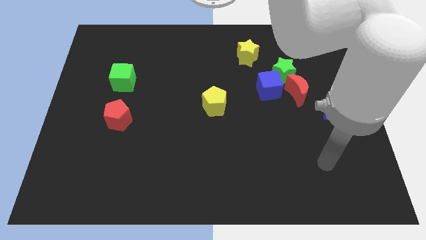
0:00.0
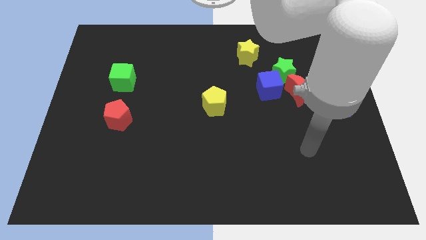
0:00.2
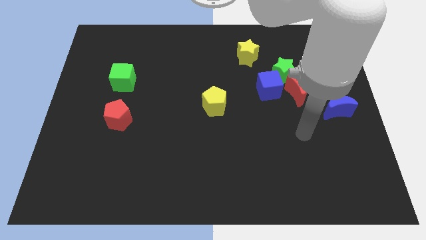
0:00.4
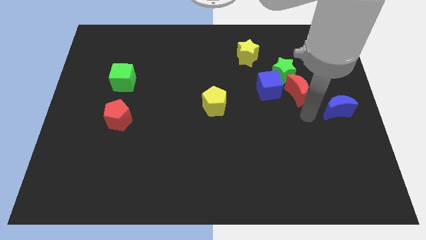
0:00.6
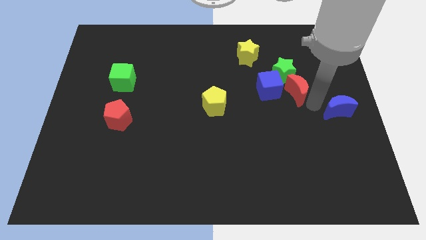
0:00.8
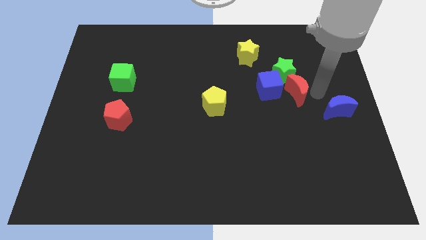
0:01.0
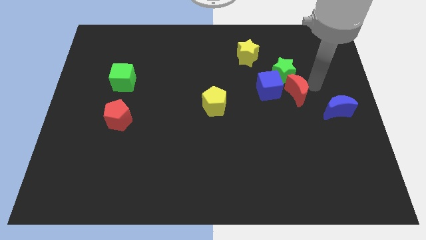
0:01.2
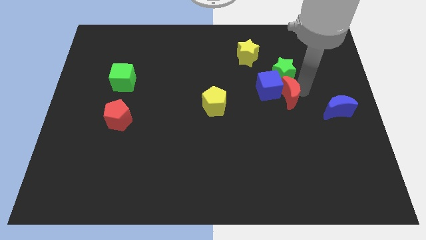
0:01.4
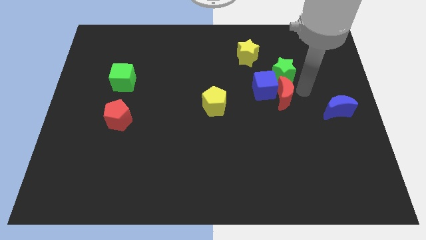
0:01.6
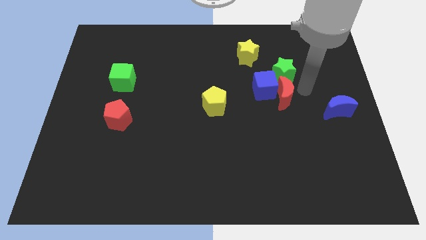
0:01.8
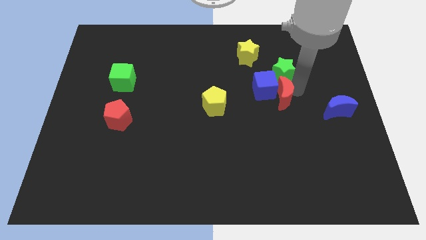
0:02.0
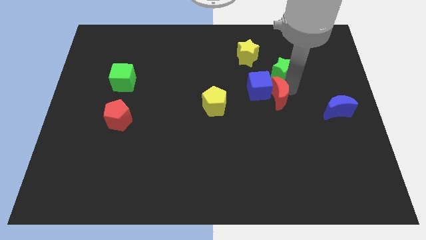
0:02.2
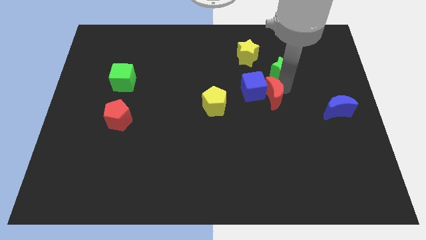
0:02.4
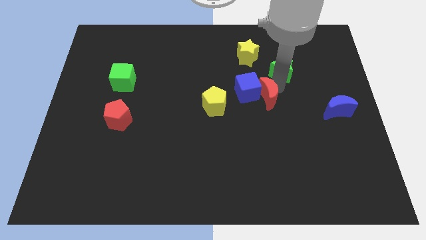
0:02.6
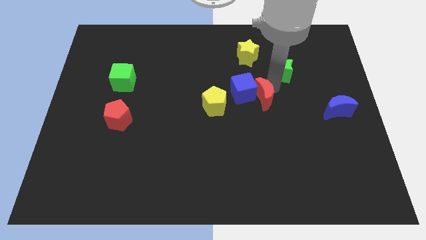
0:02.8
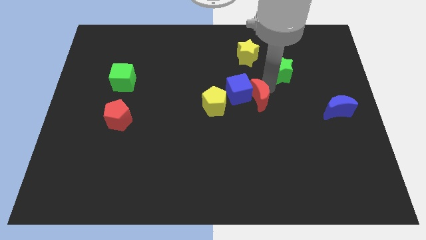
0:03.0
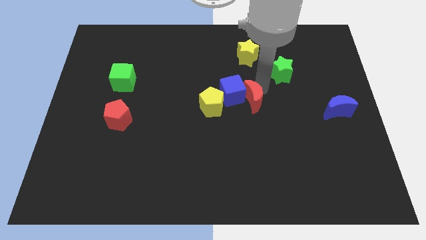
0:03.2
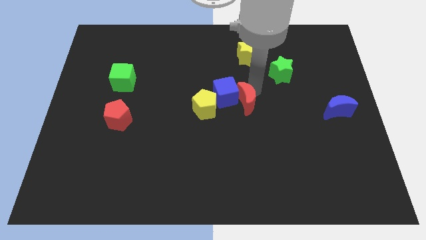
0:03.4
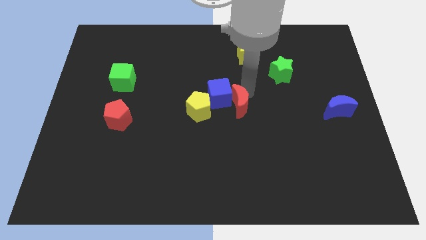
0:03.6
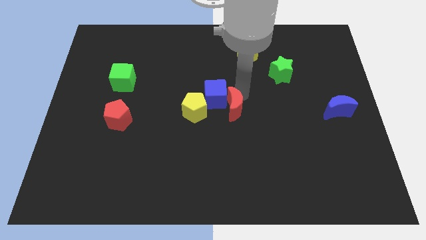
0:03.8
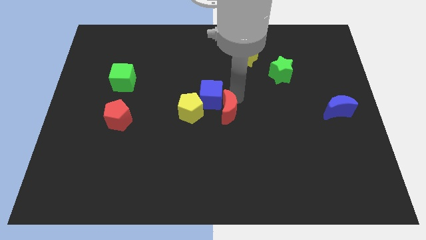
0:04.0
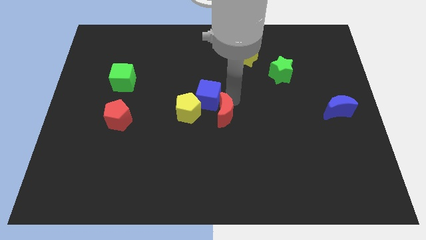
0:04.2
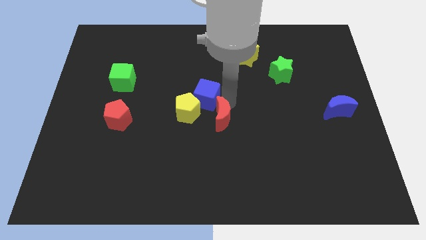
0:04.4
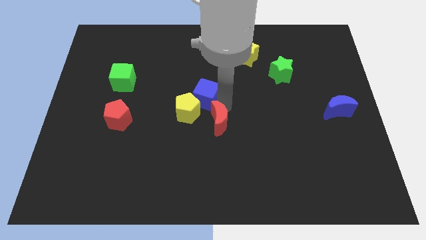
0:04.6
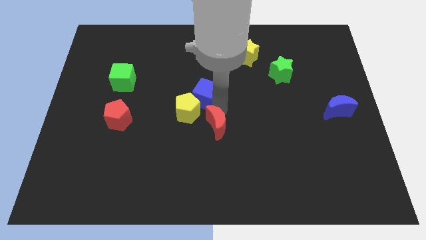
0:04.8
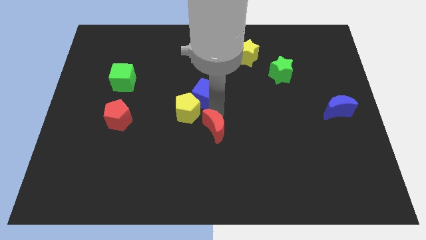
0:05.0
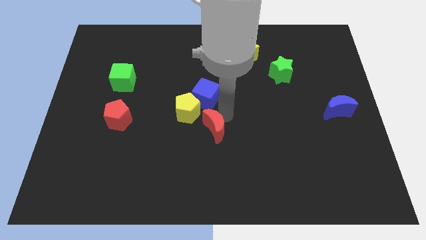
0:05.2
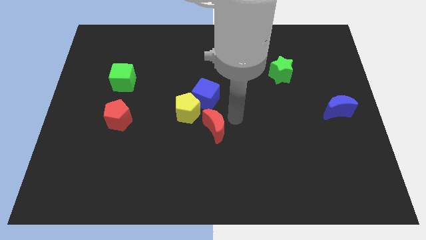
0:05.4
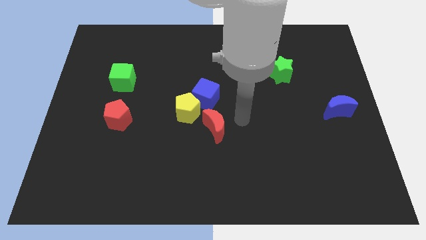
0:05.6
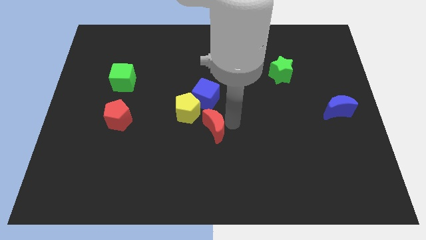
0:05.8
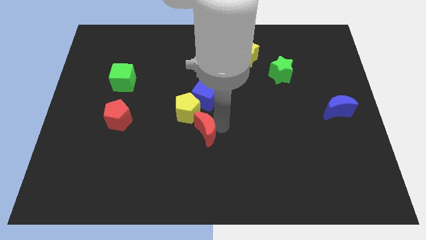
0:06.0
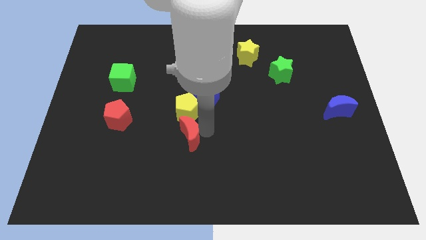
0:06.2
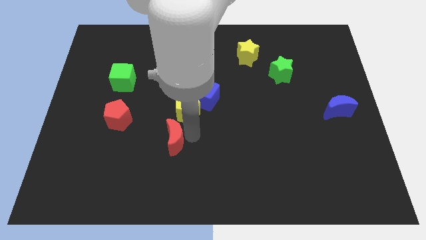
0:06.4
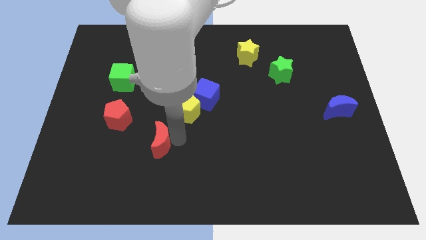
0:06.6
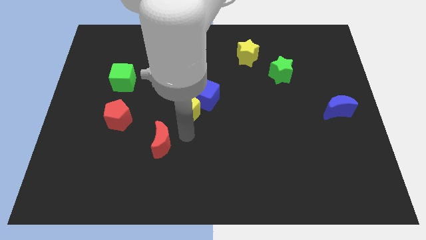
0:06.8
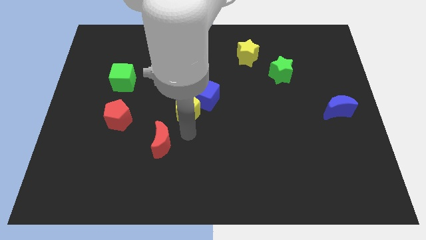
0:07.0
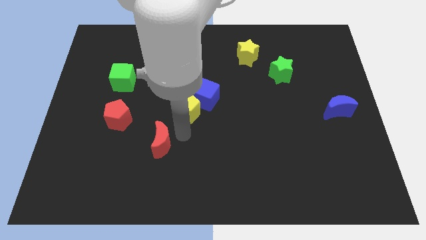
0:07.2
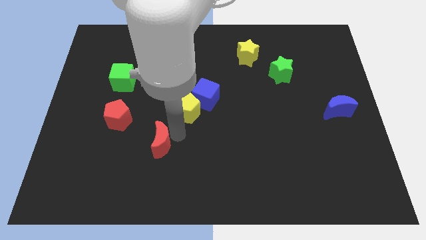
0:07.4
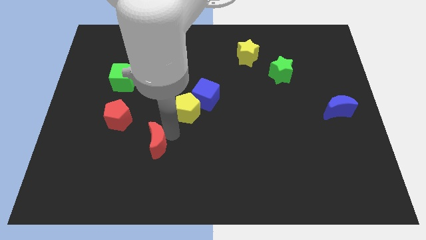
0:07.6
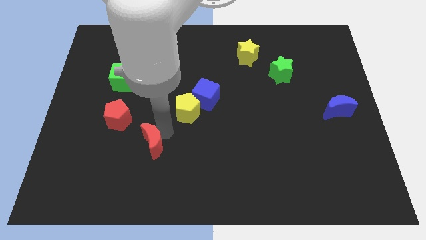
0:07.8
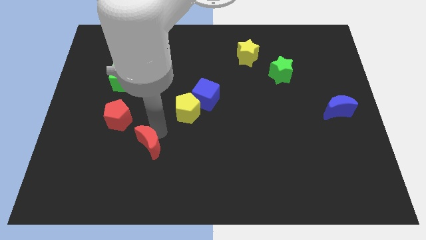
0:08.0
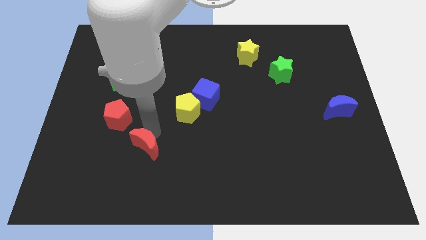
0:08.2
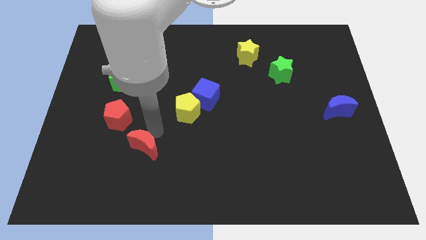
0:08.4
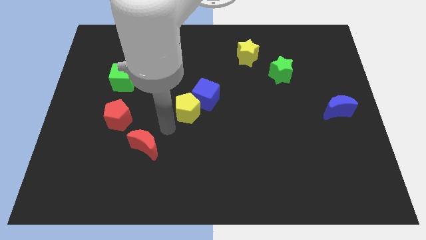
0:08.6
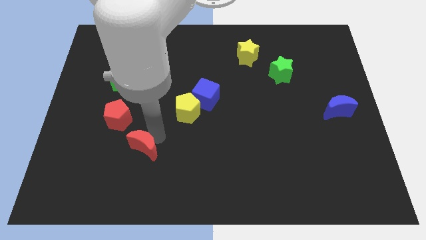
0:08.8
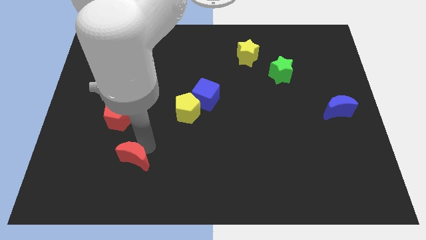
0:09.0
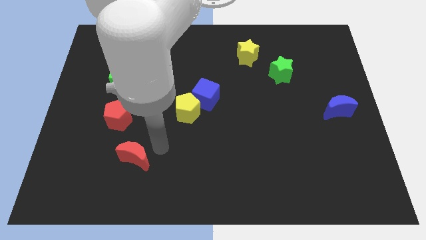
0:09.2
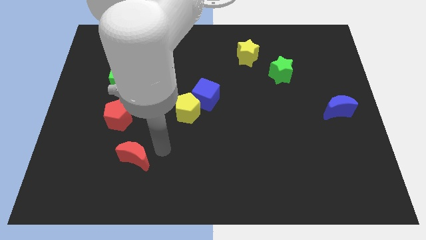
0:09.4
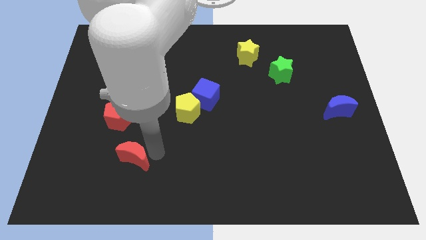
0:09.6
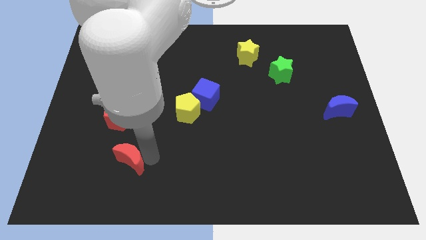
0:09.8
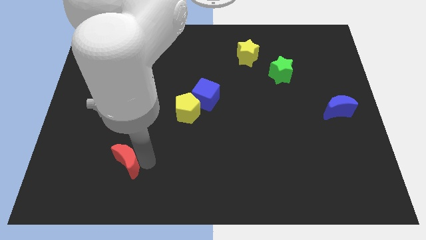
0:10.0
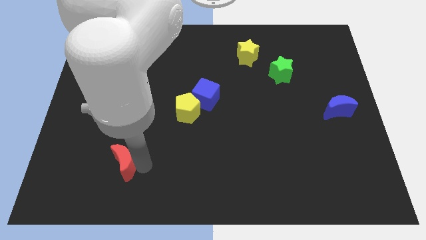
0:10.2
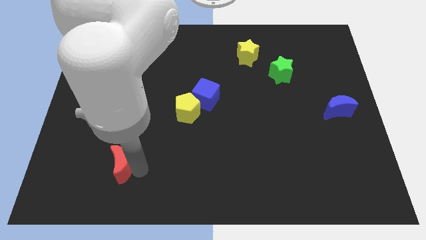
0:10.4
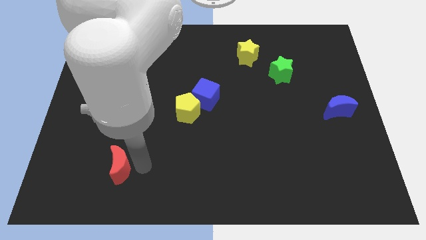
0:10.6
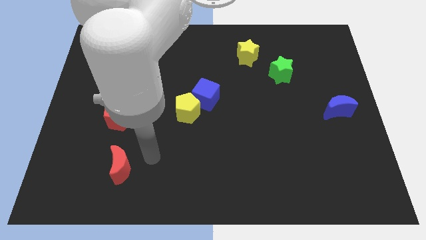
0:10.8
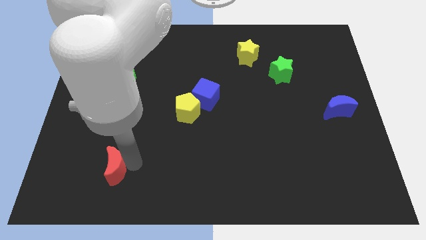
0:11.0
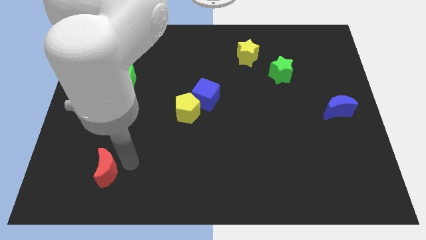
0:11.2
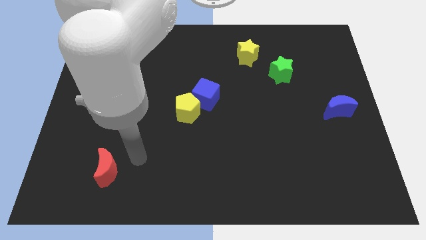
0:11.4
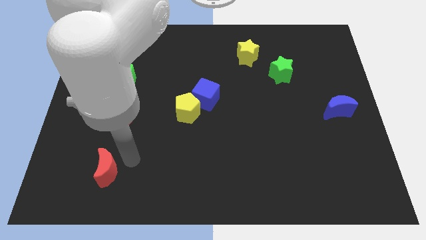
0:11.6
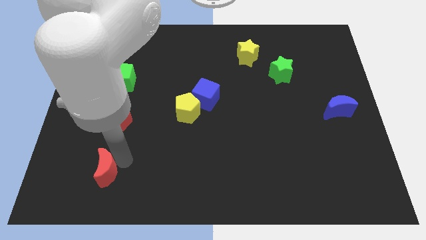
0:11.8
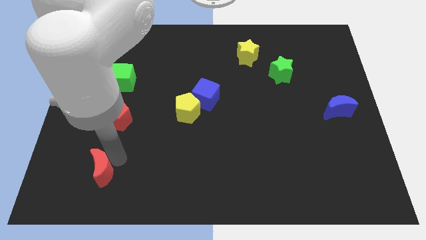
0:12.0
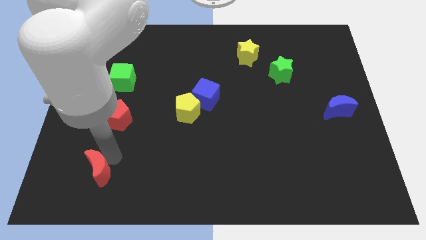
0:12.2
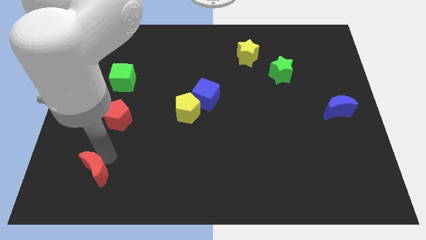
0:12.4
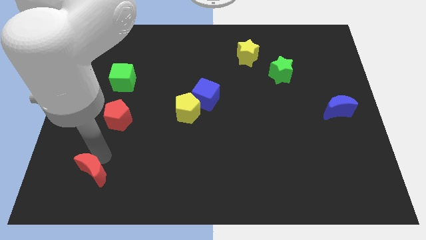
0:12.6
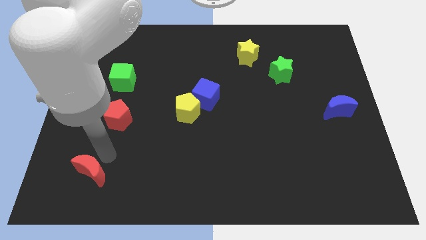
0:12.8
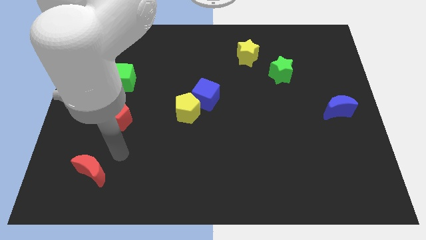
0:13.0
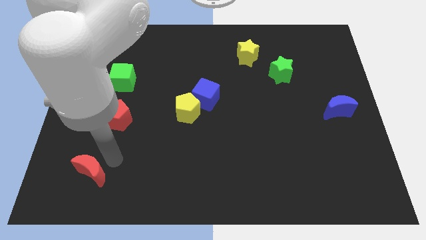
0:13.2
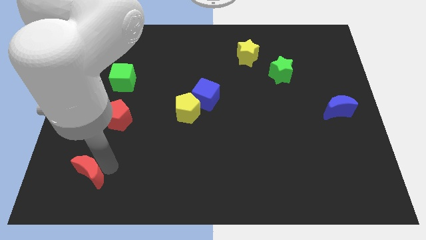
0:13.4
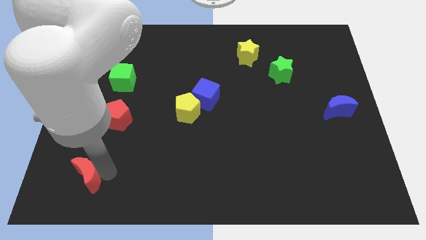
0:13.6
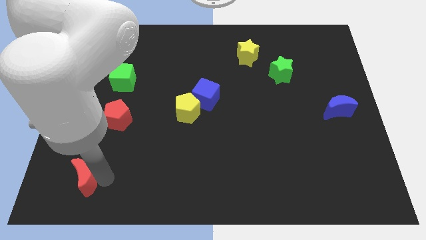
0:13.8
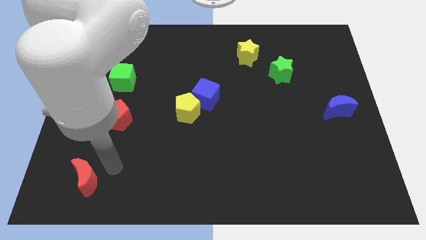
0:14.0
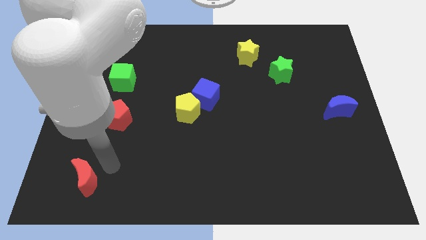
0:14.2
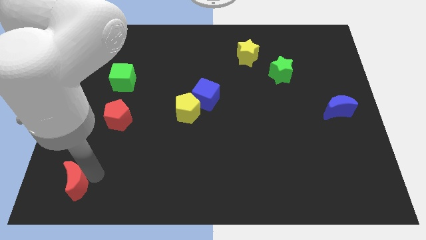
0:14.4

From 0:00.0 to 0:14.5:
move the red moon to the bottom left
